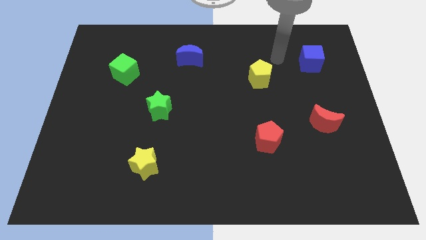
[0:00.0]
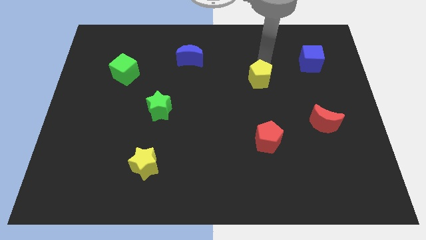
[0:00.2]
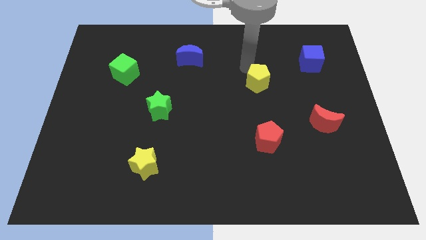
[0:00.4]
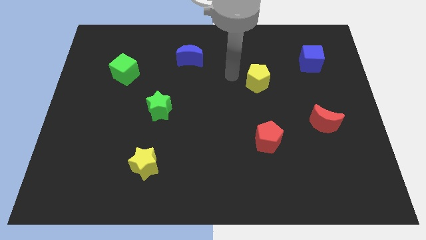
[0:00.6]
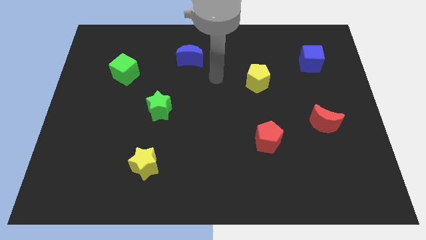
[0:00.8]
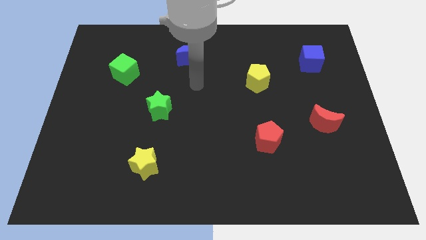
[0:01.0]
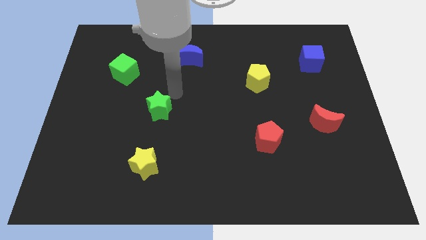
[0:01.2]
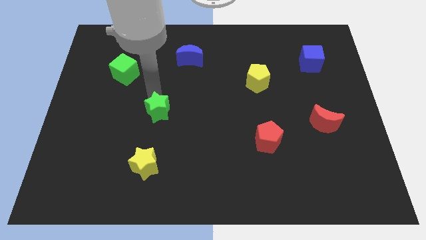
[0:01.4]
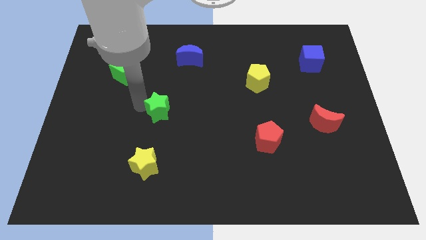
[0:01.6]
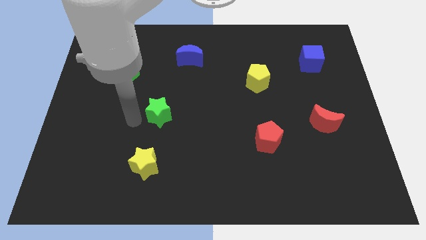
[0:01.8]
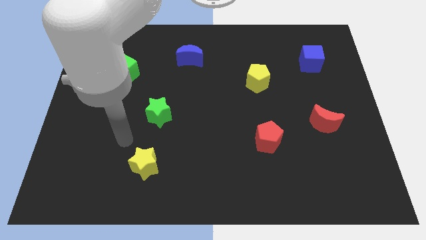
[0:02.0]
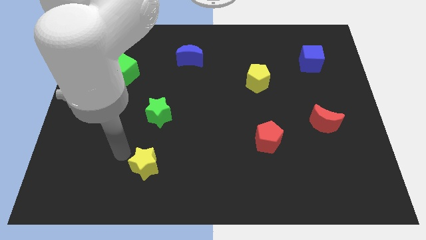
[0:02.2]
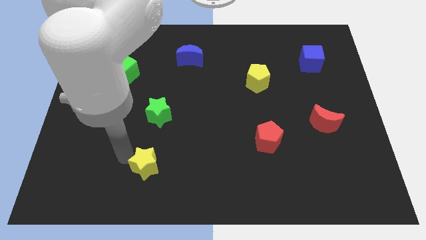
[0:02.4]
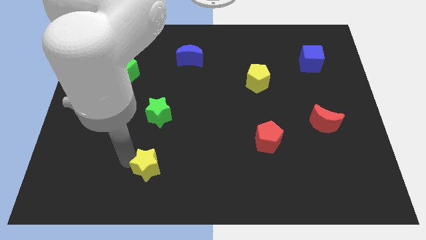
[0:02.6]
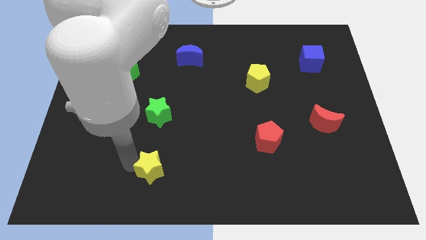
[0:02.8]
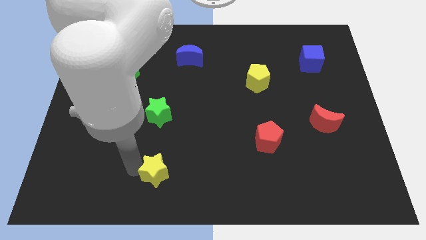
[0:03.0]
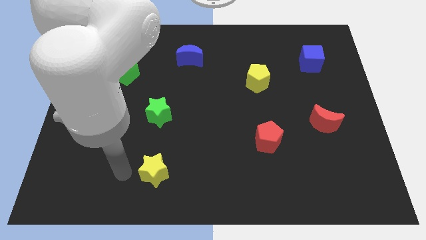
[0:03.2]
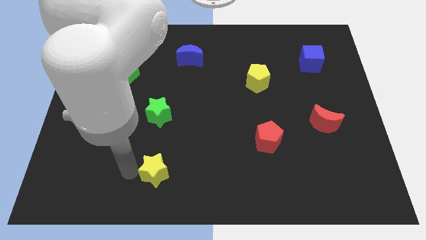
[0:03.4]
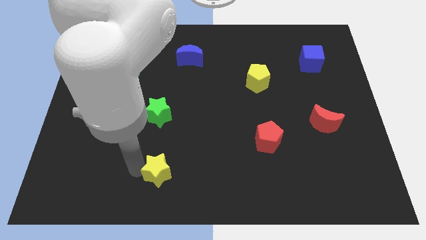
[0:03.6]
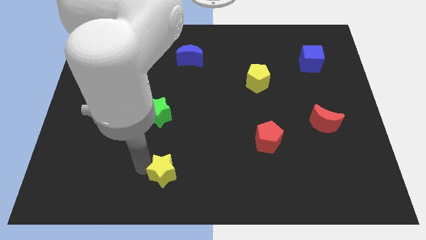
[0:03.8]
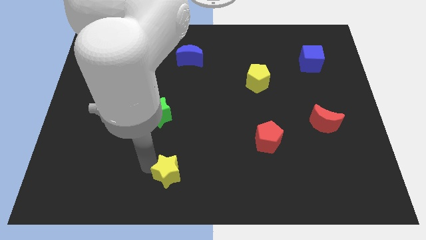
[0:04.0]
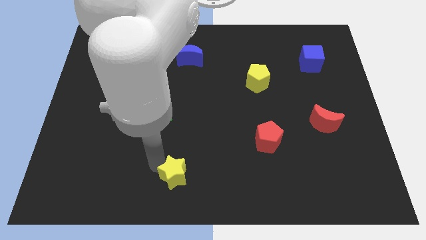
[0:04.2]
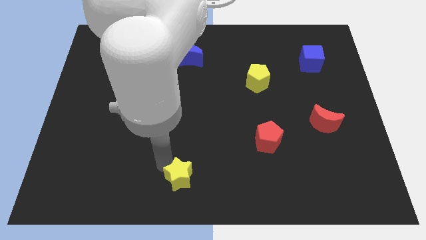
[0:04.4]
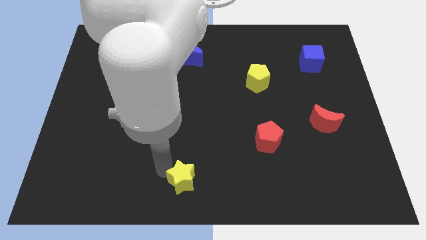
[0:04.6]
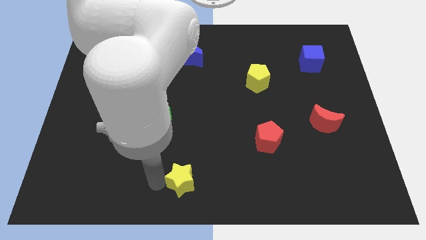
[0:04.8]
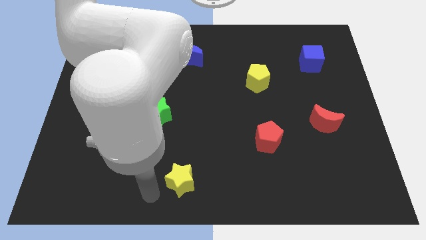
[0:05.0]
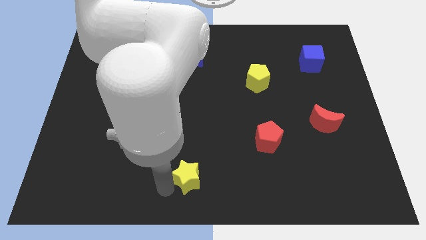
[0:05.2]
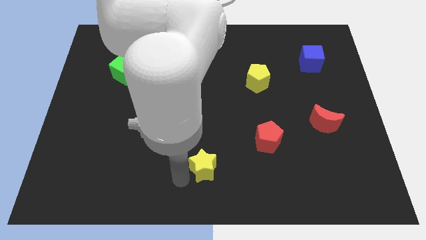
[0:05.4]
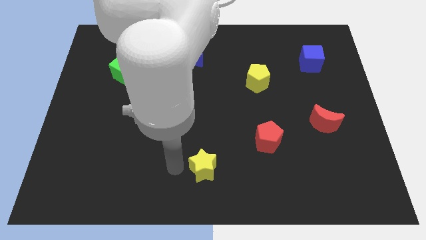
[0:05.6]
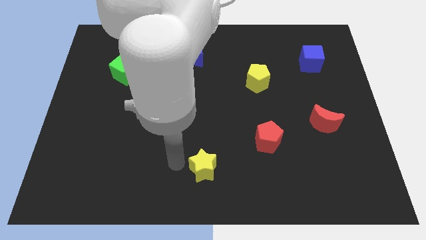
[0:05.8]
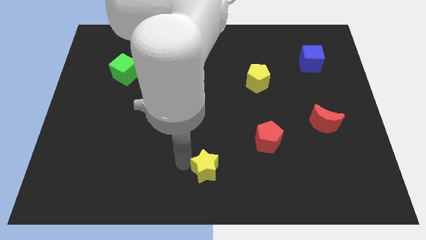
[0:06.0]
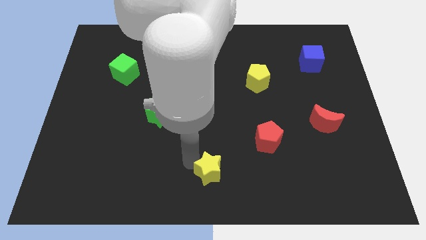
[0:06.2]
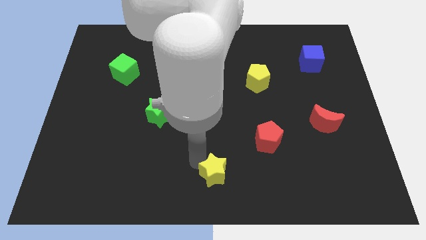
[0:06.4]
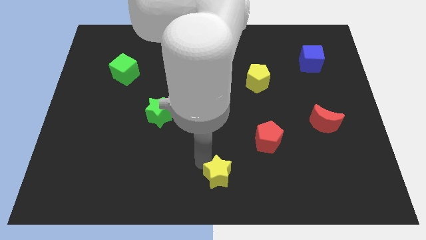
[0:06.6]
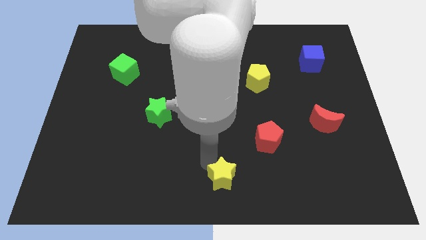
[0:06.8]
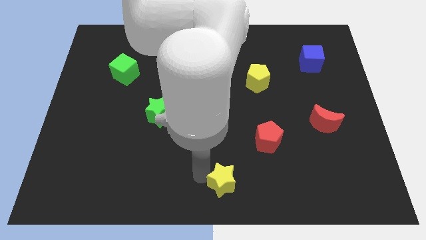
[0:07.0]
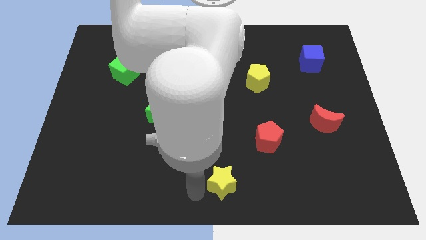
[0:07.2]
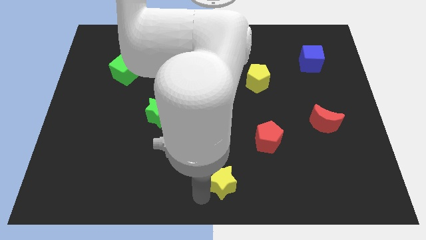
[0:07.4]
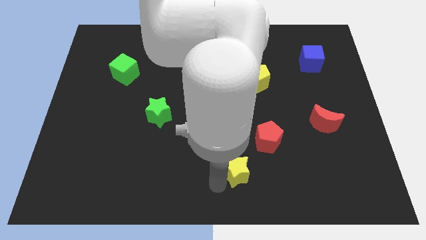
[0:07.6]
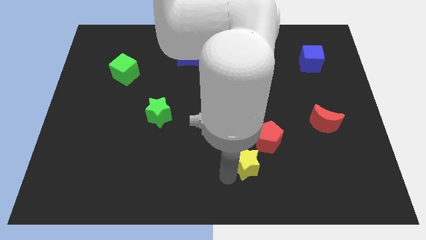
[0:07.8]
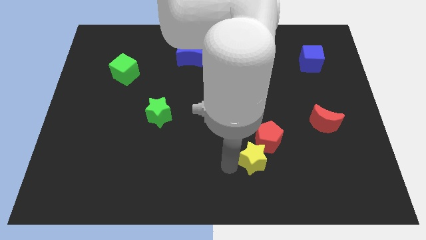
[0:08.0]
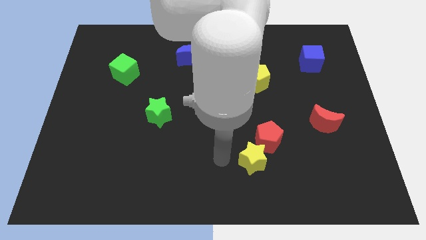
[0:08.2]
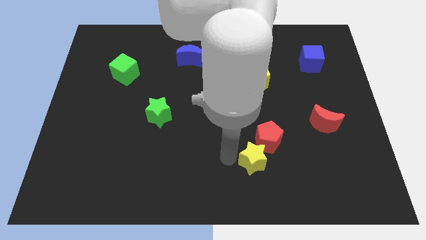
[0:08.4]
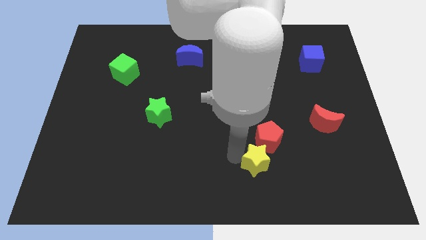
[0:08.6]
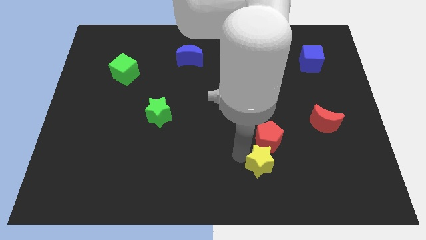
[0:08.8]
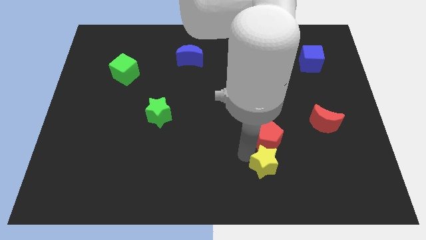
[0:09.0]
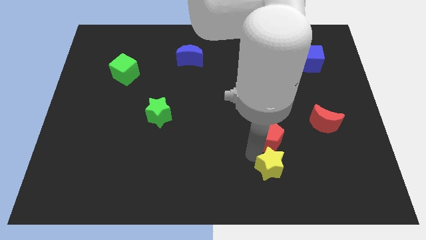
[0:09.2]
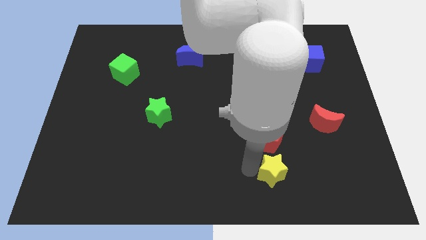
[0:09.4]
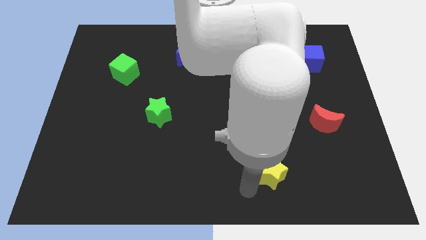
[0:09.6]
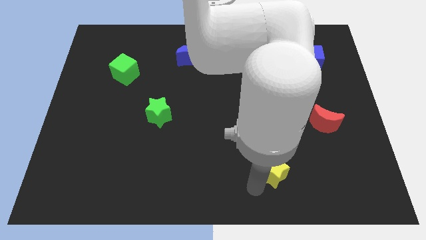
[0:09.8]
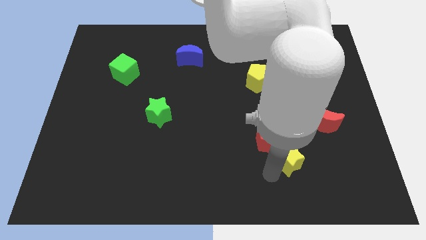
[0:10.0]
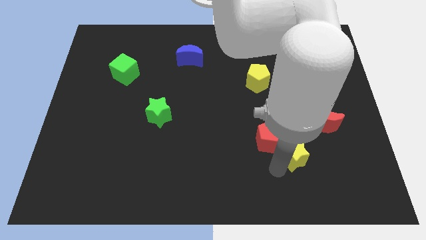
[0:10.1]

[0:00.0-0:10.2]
move the yellow star to the bottom left side of the red moon

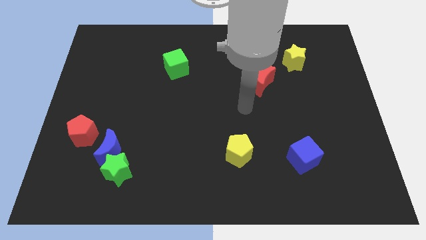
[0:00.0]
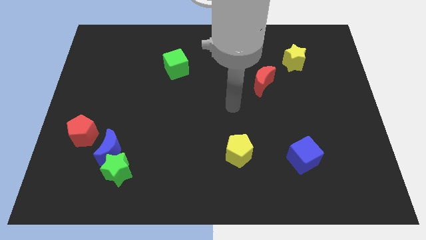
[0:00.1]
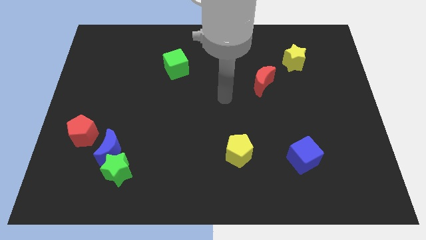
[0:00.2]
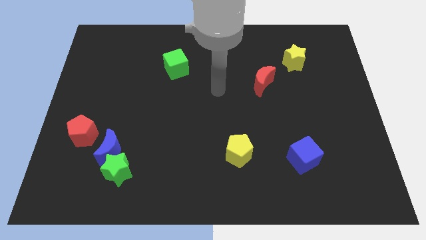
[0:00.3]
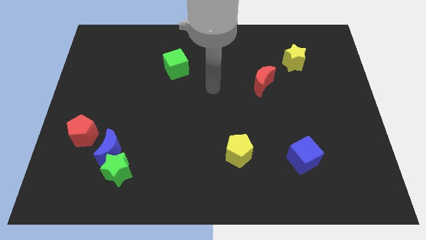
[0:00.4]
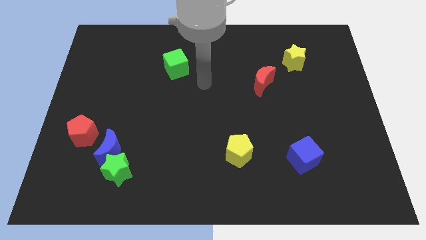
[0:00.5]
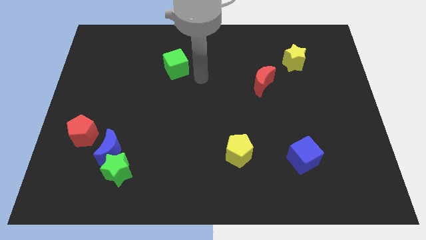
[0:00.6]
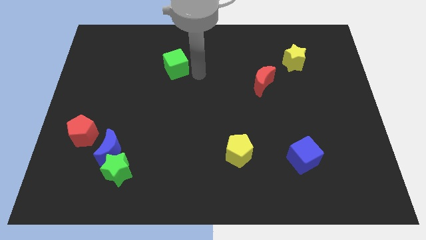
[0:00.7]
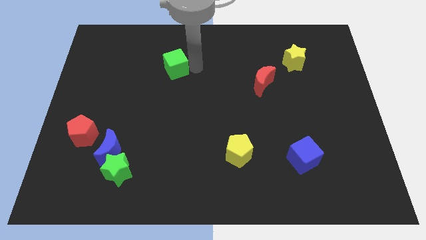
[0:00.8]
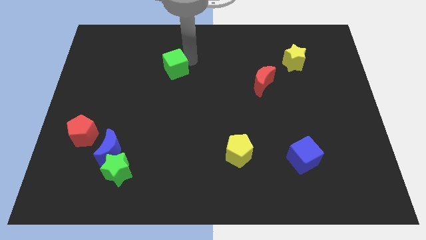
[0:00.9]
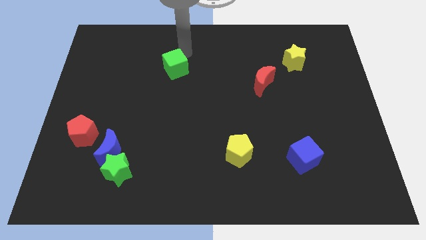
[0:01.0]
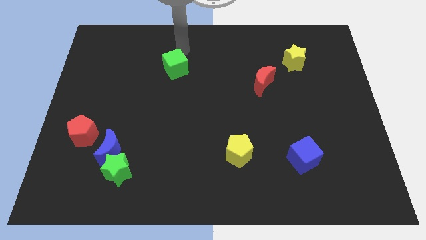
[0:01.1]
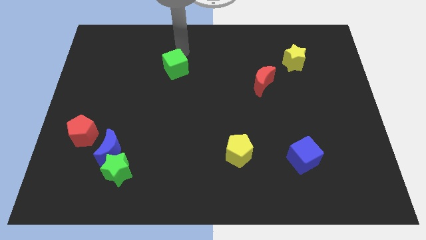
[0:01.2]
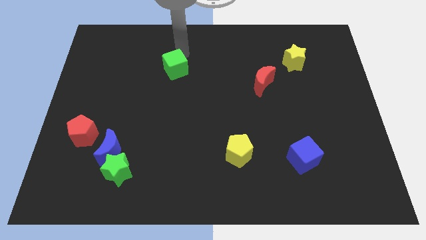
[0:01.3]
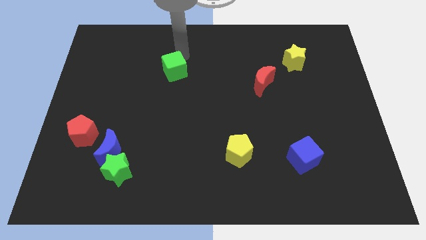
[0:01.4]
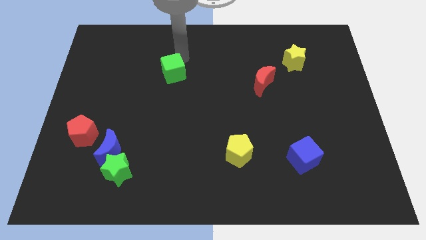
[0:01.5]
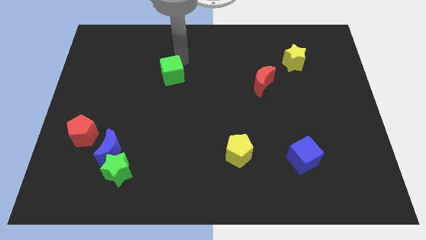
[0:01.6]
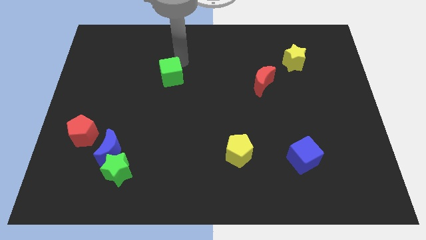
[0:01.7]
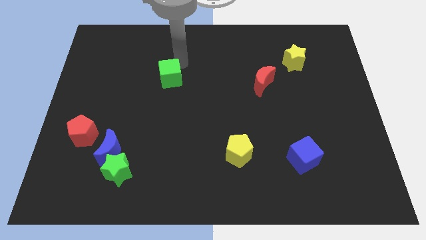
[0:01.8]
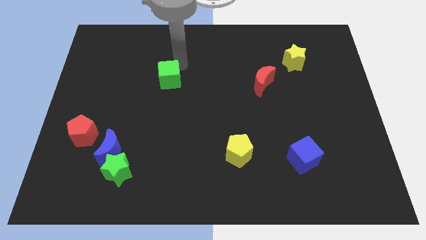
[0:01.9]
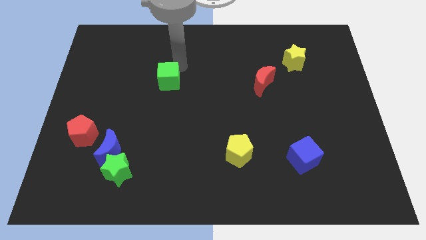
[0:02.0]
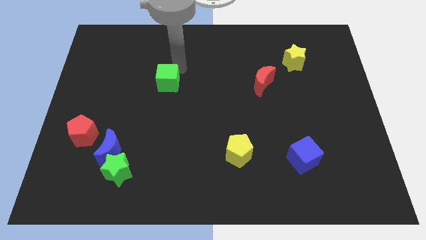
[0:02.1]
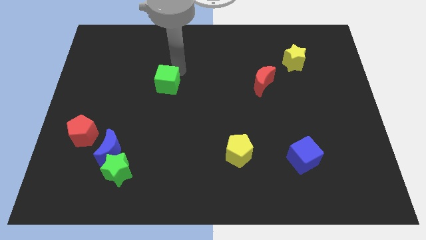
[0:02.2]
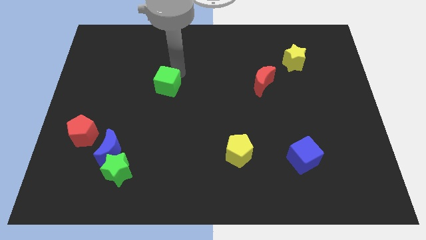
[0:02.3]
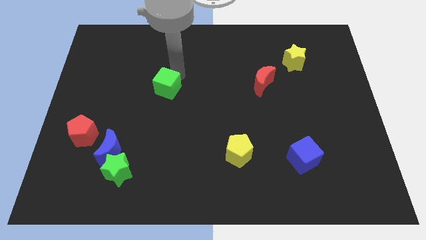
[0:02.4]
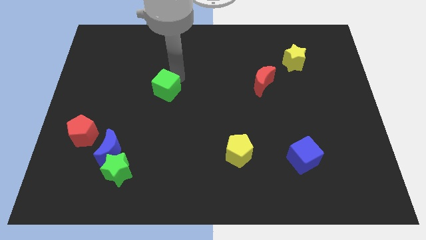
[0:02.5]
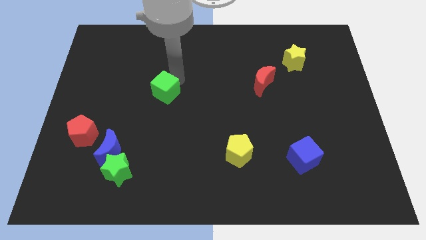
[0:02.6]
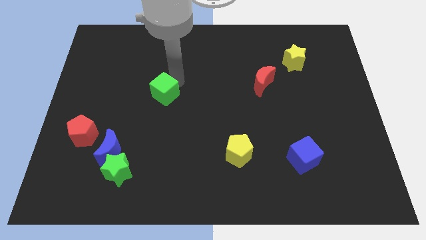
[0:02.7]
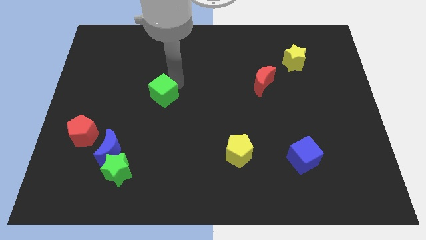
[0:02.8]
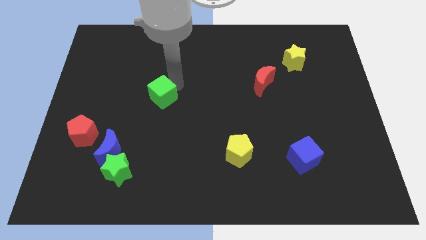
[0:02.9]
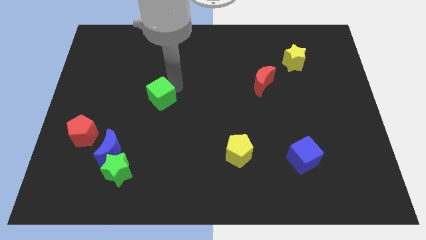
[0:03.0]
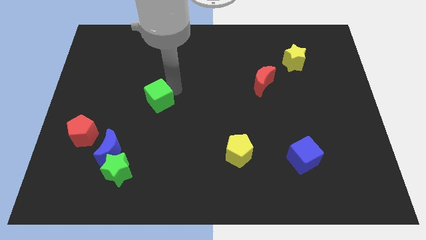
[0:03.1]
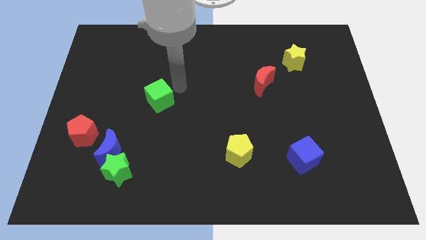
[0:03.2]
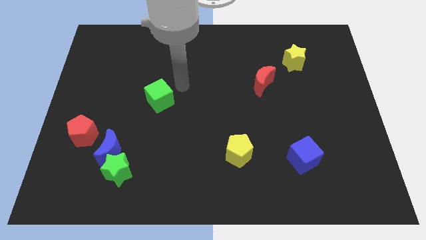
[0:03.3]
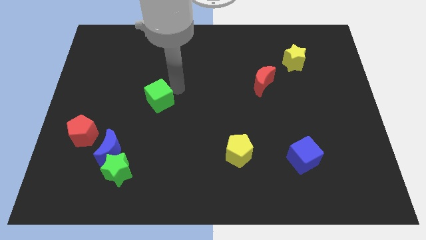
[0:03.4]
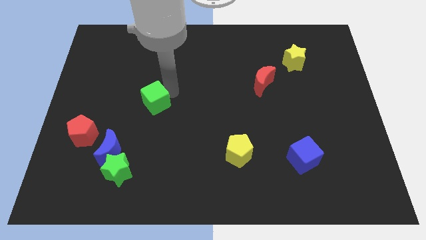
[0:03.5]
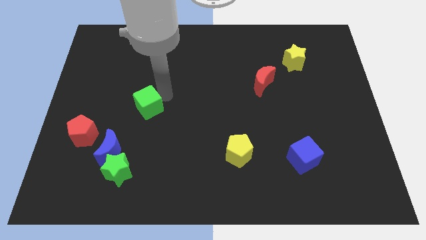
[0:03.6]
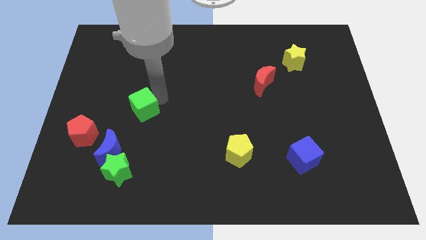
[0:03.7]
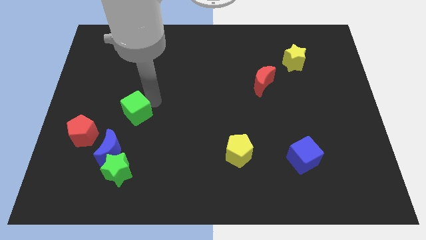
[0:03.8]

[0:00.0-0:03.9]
push the green cube to the top side of the green star
